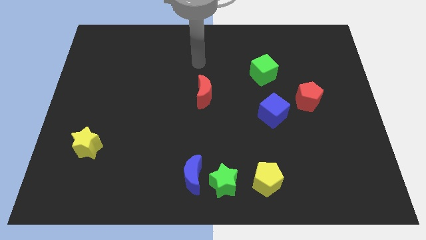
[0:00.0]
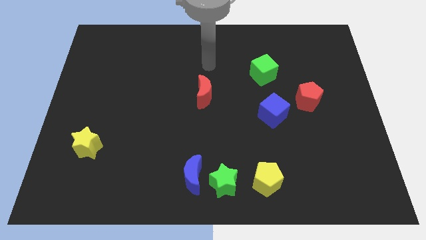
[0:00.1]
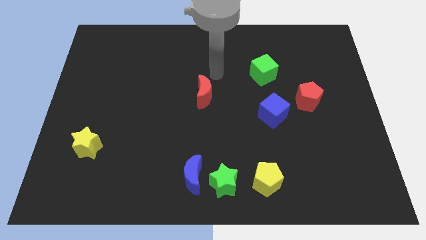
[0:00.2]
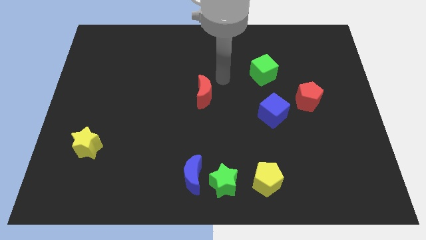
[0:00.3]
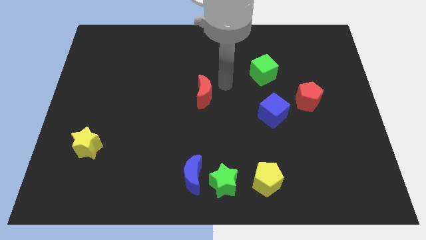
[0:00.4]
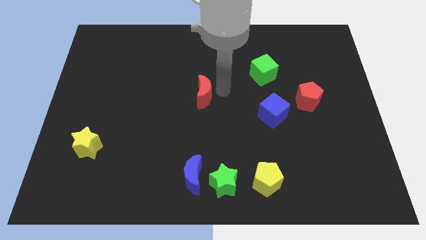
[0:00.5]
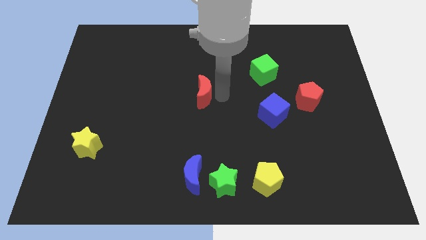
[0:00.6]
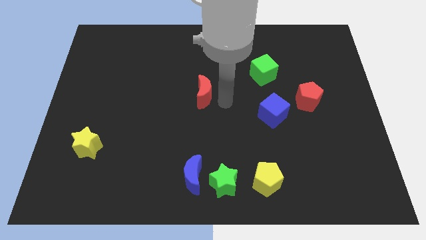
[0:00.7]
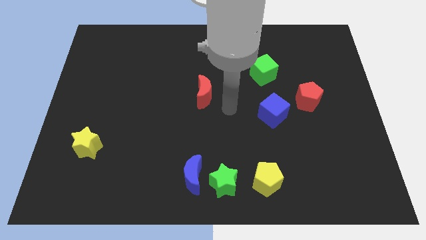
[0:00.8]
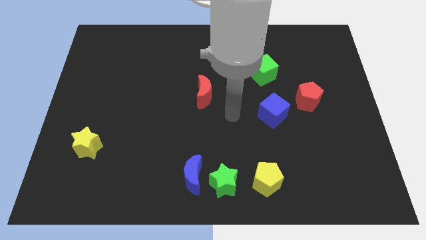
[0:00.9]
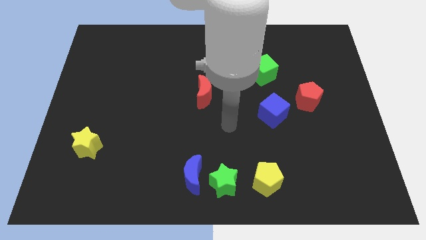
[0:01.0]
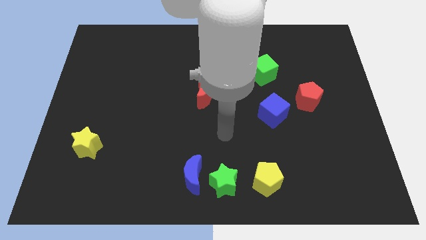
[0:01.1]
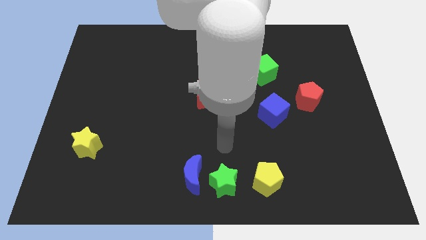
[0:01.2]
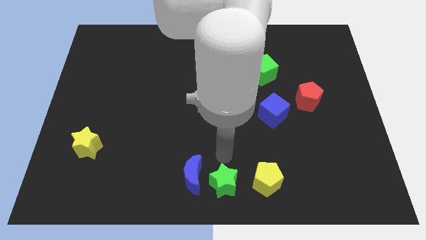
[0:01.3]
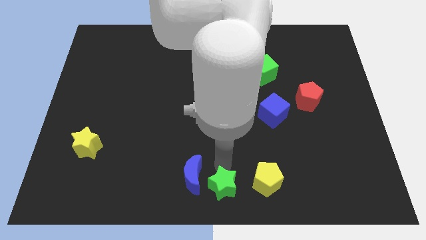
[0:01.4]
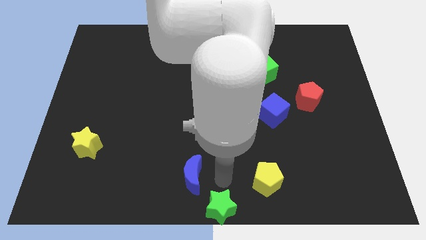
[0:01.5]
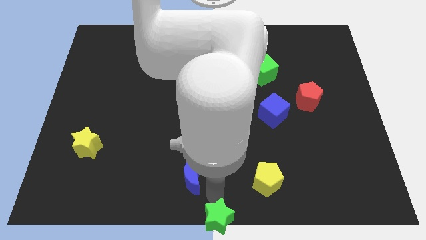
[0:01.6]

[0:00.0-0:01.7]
separate the blue moon from the green star

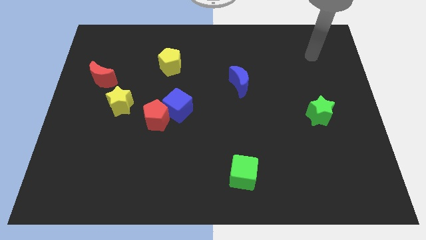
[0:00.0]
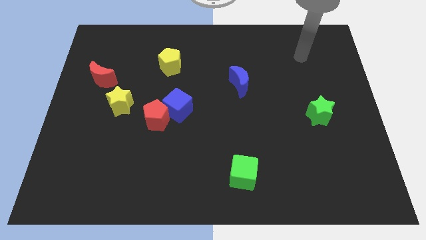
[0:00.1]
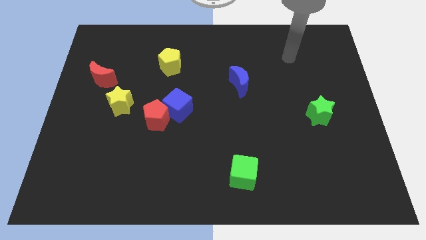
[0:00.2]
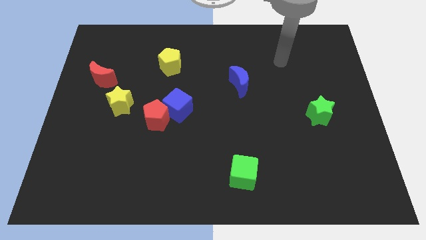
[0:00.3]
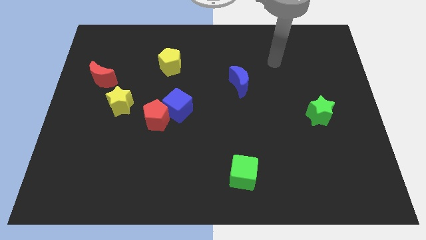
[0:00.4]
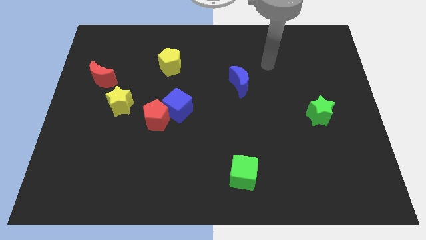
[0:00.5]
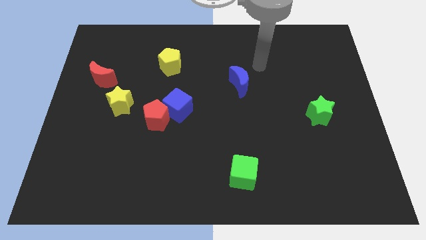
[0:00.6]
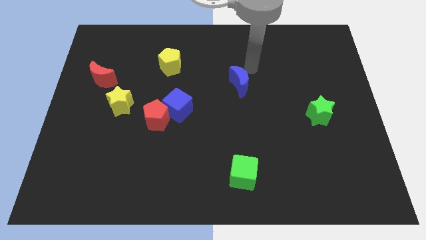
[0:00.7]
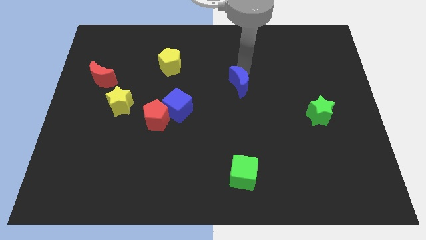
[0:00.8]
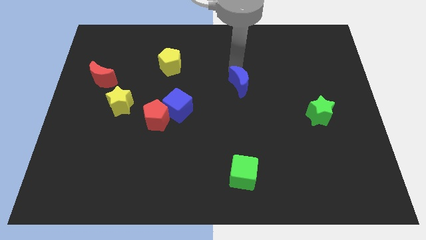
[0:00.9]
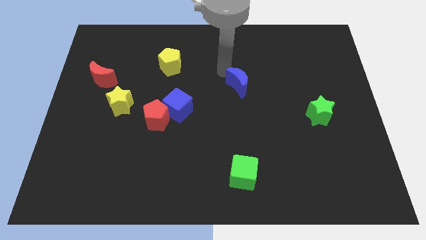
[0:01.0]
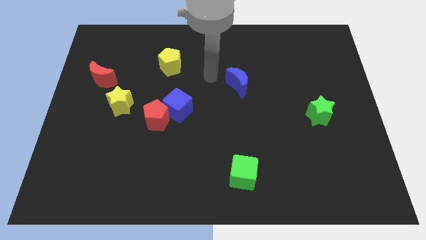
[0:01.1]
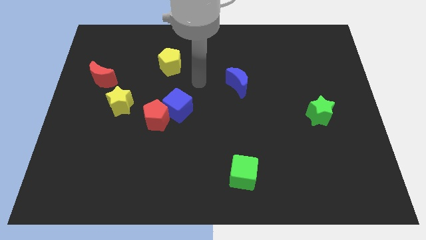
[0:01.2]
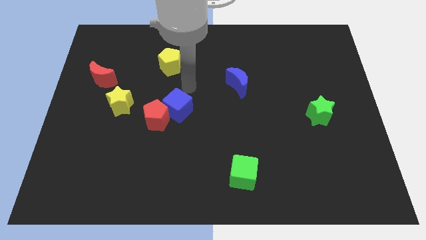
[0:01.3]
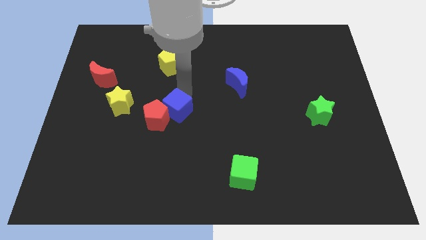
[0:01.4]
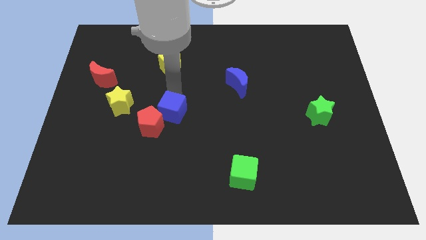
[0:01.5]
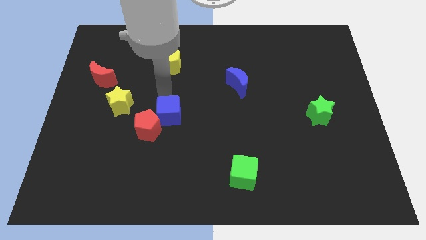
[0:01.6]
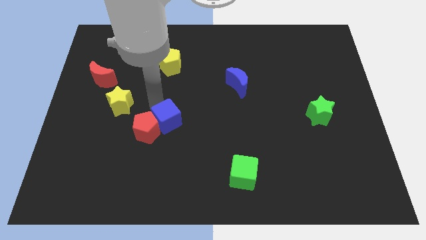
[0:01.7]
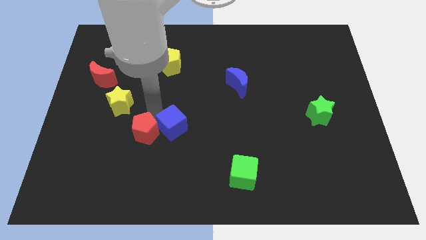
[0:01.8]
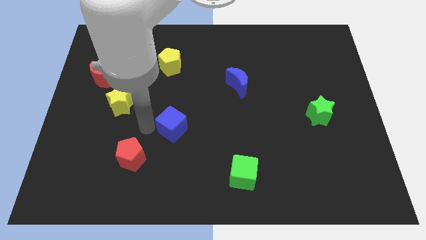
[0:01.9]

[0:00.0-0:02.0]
move the blue cube away from the red pentagon

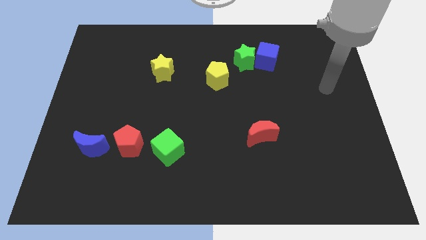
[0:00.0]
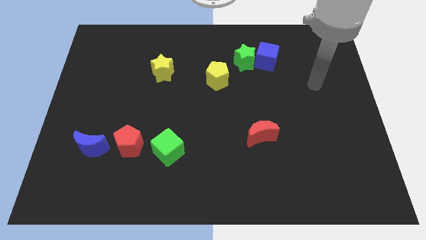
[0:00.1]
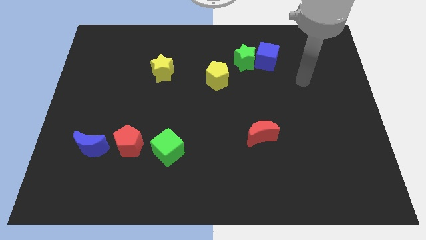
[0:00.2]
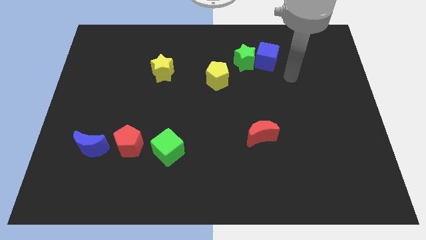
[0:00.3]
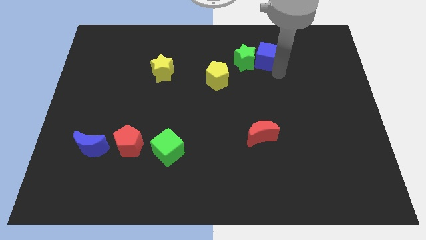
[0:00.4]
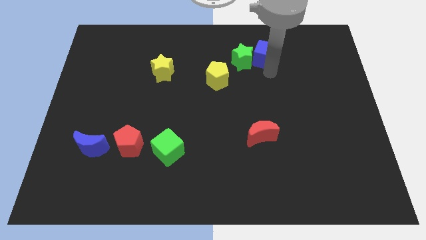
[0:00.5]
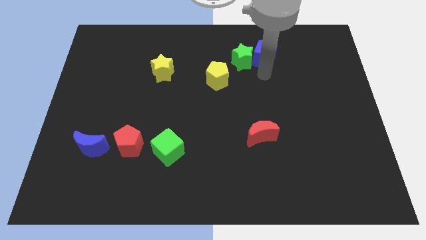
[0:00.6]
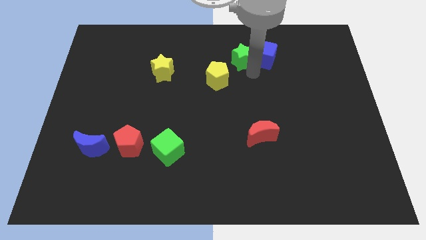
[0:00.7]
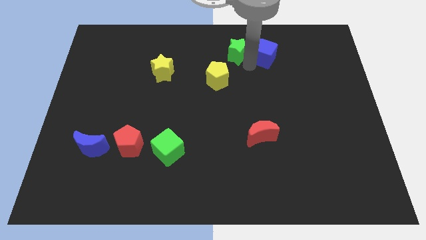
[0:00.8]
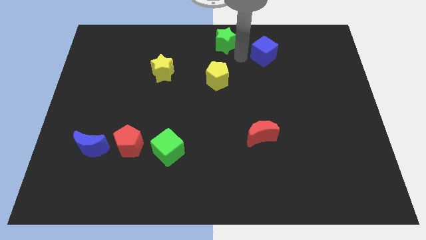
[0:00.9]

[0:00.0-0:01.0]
move the blue cube away from the green star

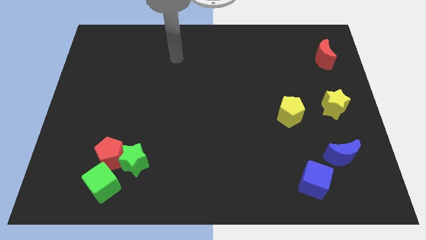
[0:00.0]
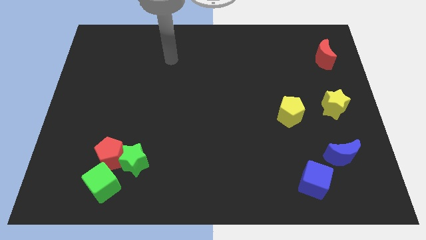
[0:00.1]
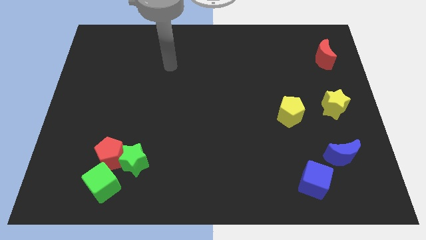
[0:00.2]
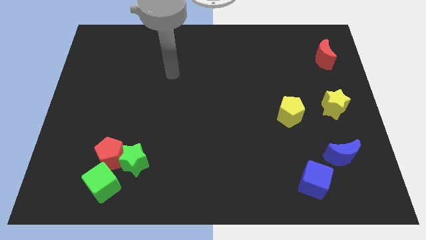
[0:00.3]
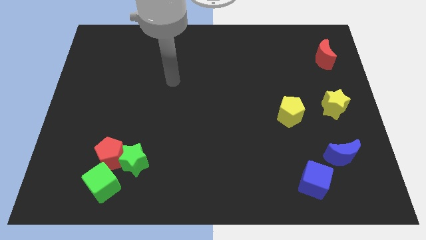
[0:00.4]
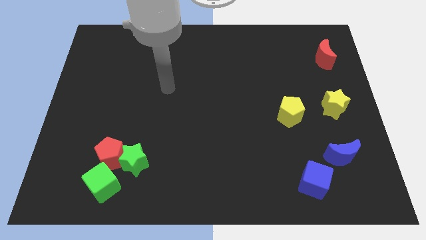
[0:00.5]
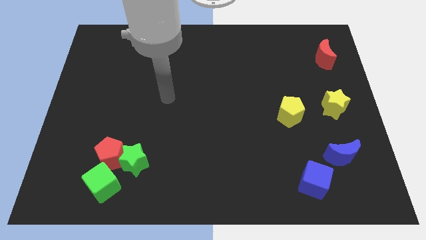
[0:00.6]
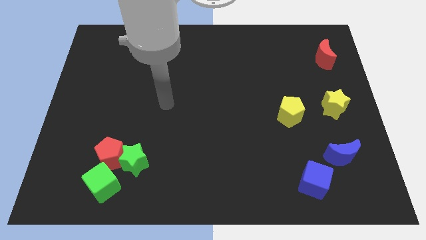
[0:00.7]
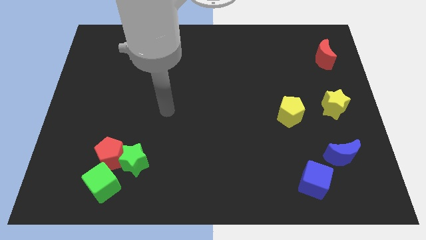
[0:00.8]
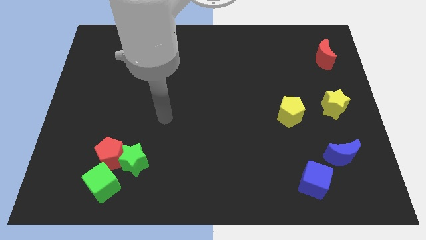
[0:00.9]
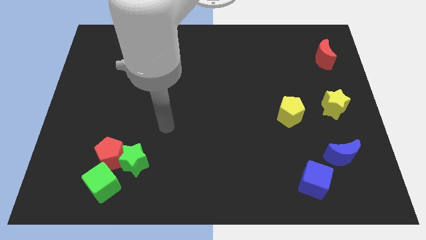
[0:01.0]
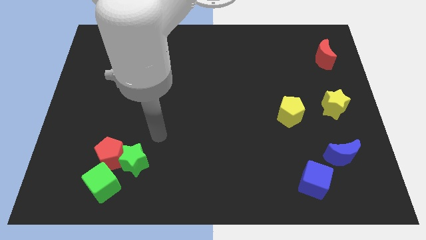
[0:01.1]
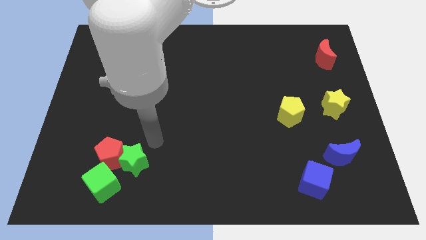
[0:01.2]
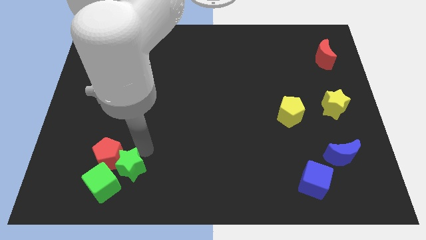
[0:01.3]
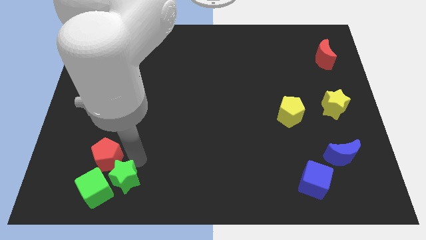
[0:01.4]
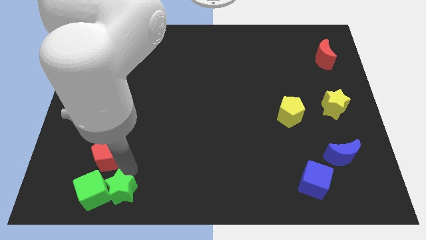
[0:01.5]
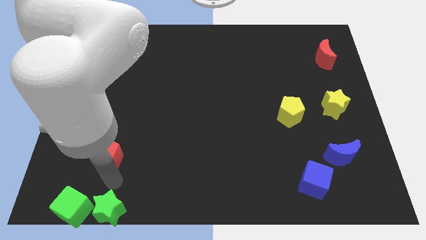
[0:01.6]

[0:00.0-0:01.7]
separate the red pentagon from the green star and green cube

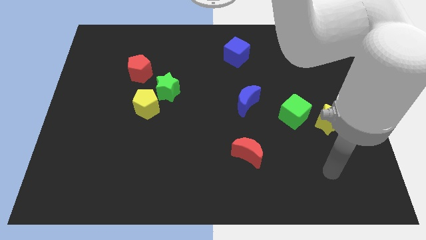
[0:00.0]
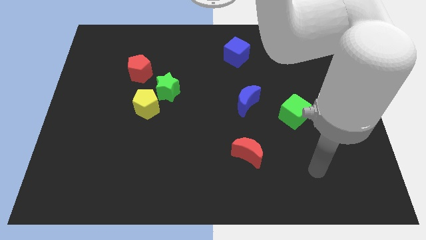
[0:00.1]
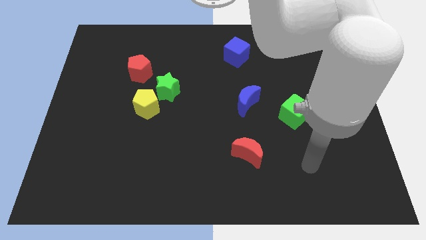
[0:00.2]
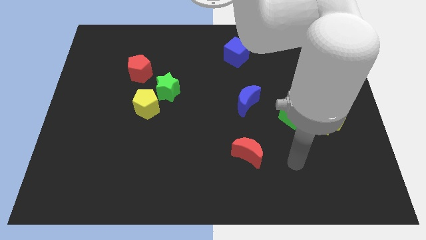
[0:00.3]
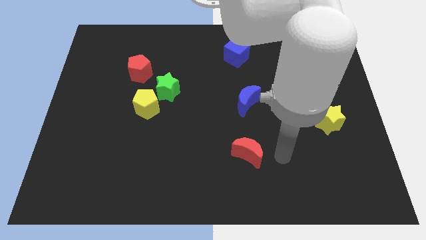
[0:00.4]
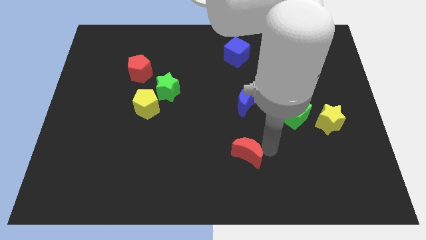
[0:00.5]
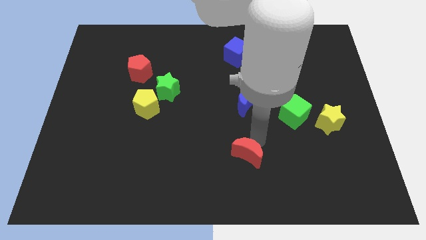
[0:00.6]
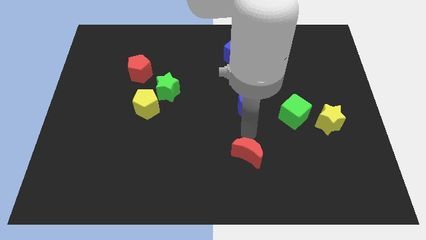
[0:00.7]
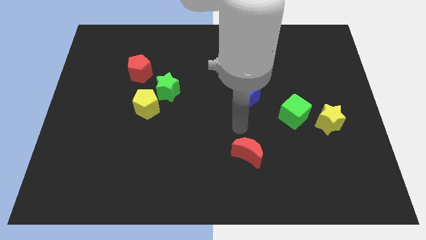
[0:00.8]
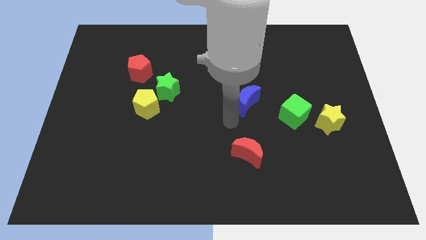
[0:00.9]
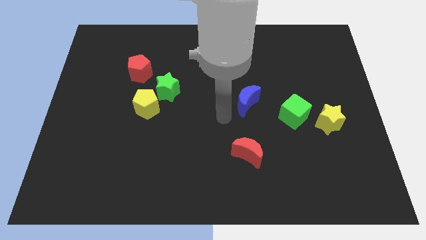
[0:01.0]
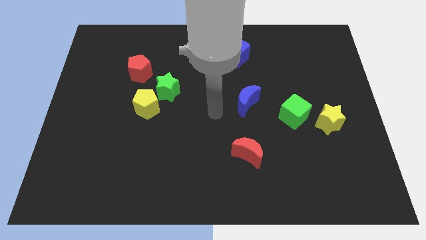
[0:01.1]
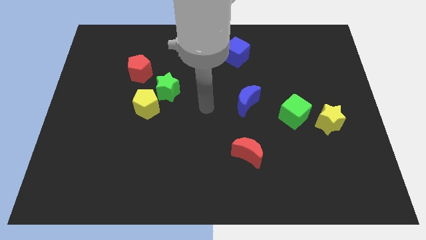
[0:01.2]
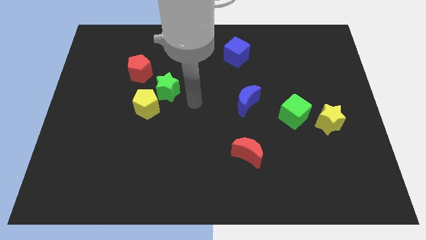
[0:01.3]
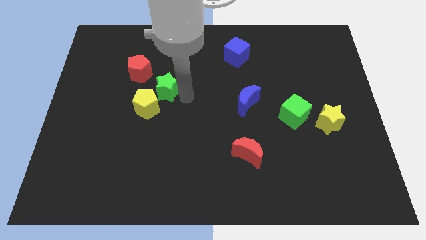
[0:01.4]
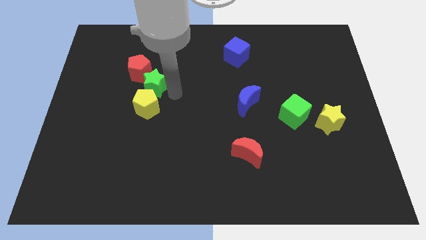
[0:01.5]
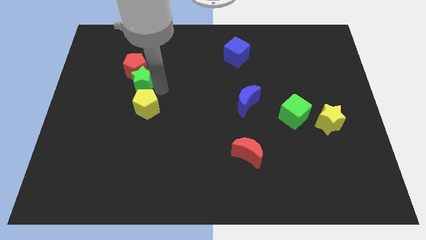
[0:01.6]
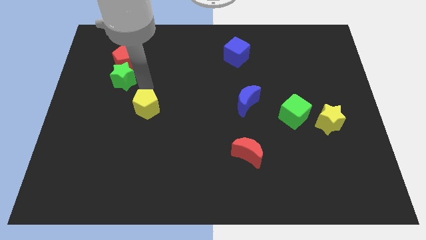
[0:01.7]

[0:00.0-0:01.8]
move the yellow pentagon away from the green star

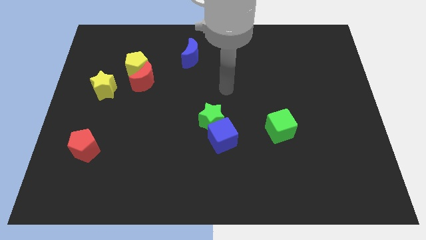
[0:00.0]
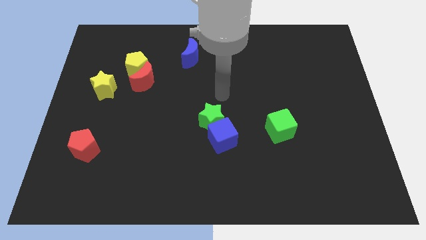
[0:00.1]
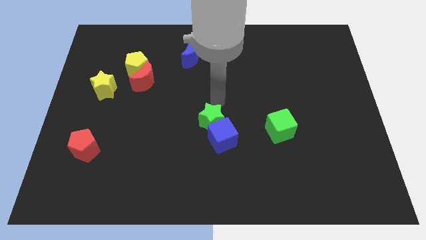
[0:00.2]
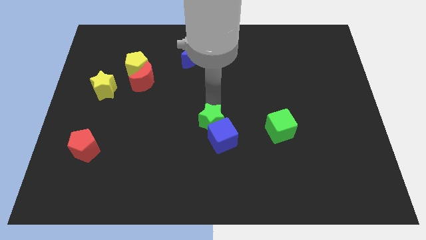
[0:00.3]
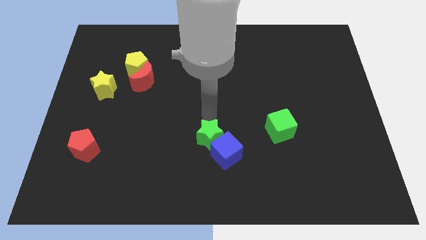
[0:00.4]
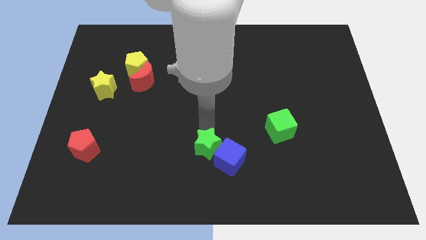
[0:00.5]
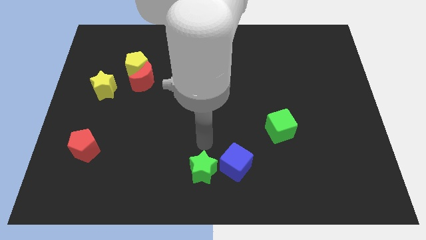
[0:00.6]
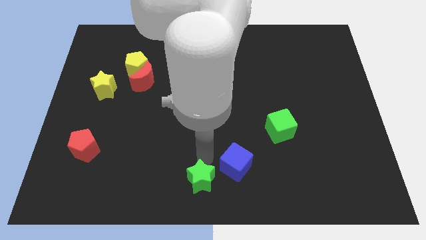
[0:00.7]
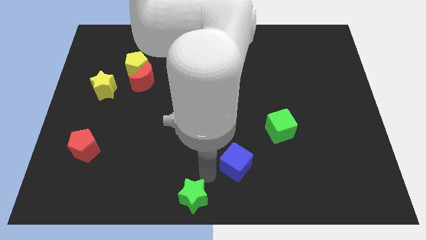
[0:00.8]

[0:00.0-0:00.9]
pull the blue cube apart from the green star
